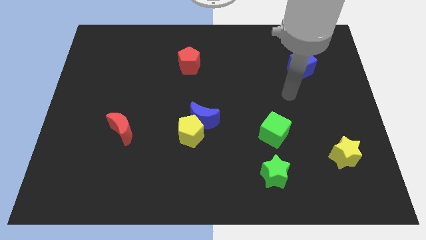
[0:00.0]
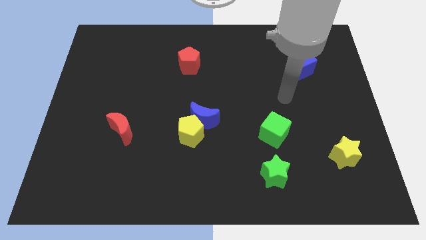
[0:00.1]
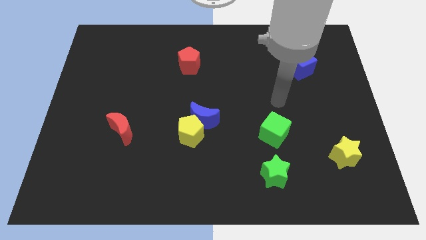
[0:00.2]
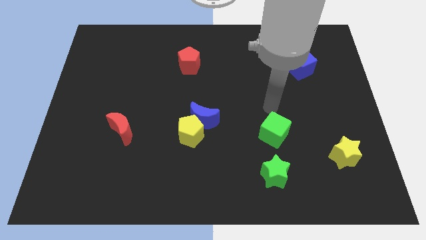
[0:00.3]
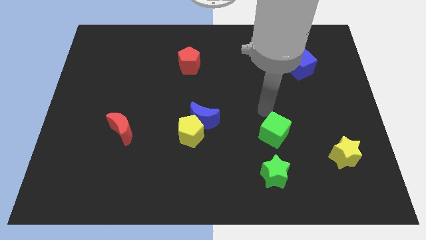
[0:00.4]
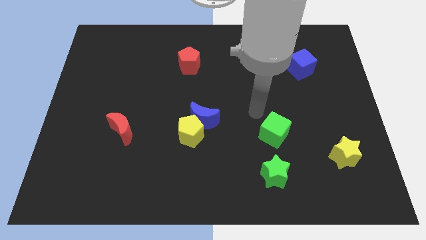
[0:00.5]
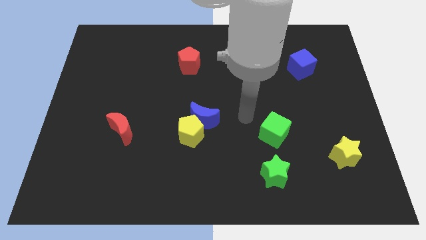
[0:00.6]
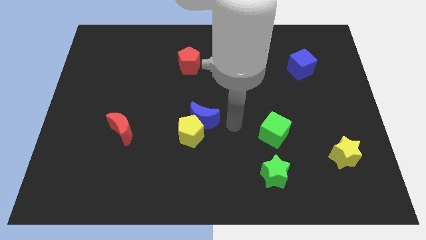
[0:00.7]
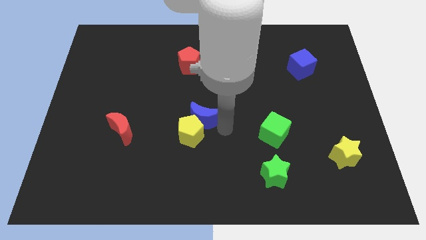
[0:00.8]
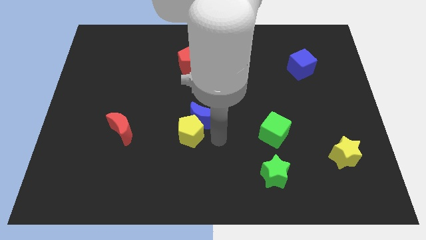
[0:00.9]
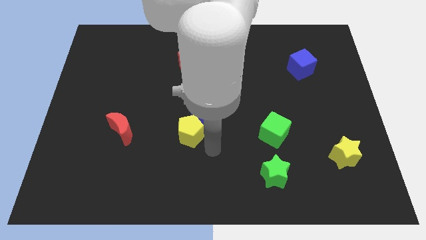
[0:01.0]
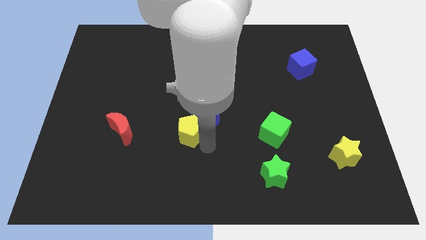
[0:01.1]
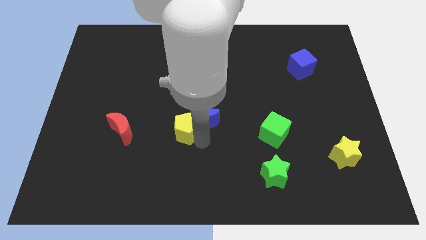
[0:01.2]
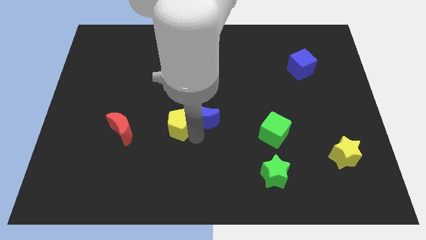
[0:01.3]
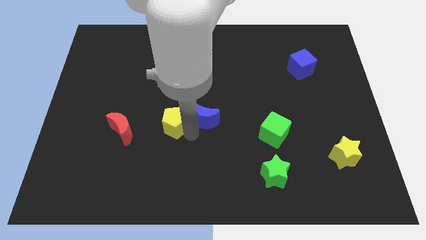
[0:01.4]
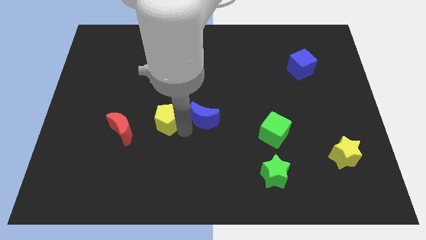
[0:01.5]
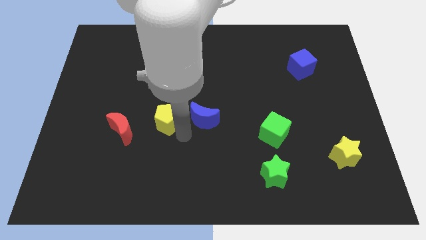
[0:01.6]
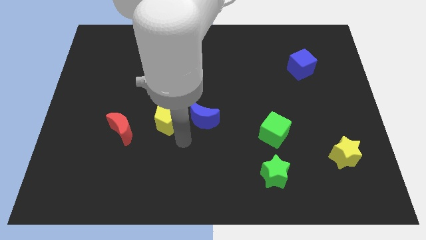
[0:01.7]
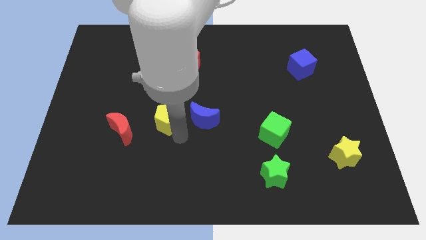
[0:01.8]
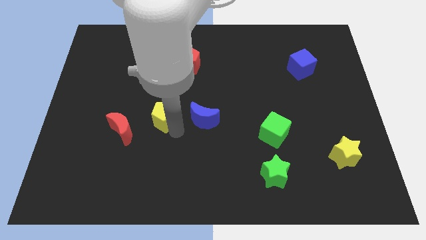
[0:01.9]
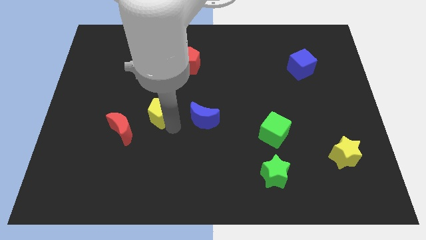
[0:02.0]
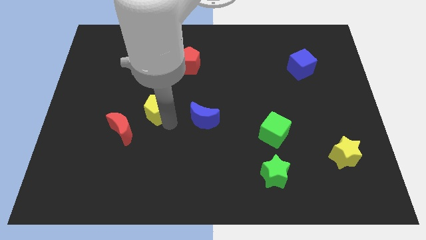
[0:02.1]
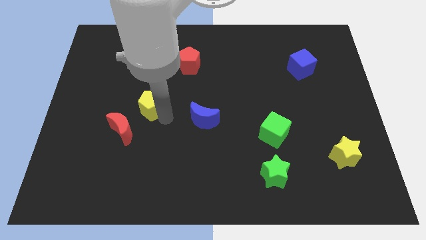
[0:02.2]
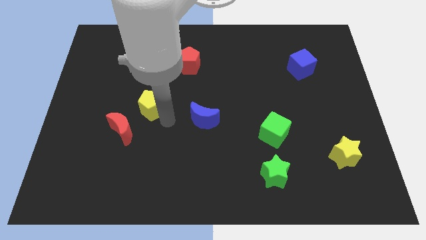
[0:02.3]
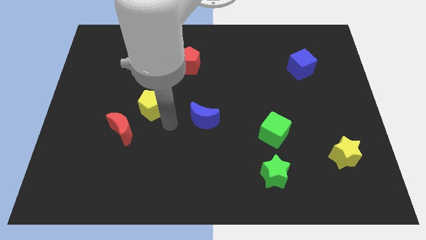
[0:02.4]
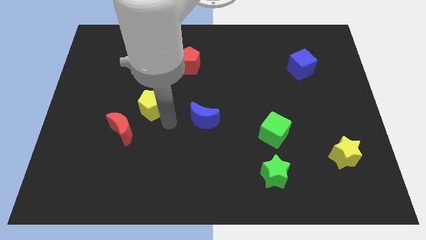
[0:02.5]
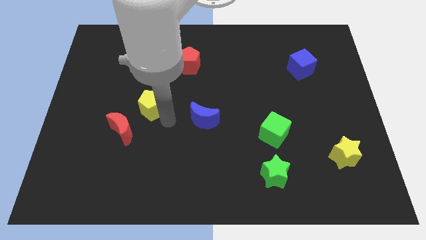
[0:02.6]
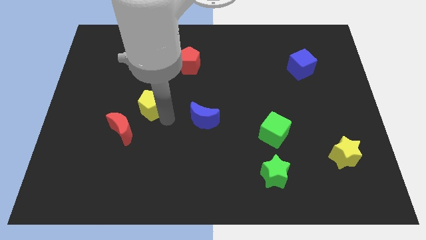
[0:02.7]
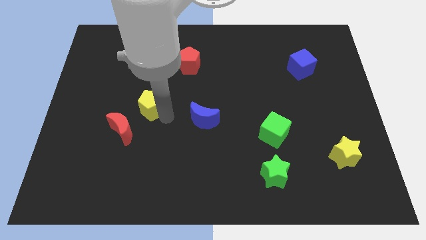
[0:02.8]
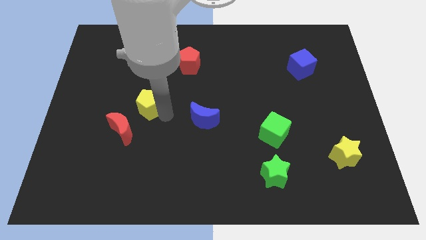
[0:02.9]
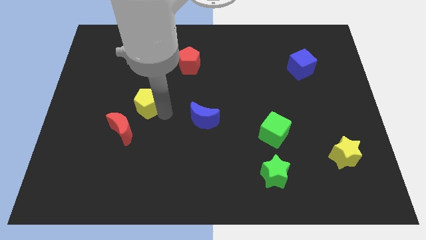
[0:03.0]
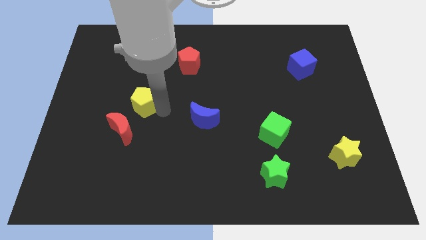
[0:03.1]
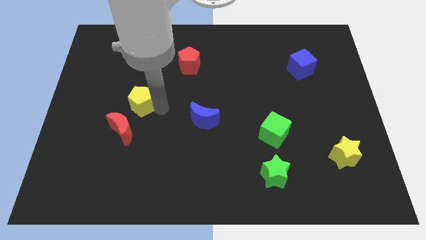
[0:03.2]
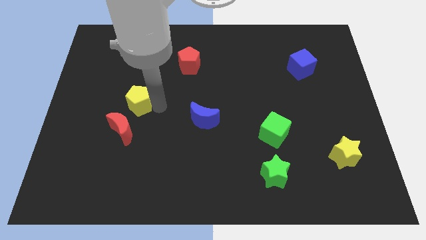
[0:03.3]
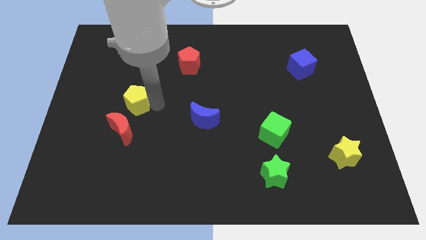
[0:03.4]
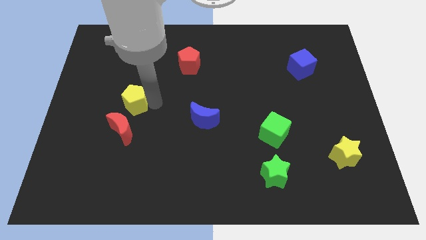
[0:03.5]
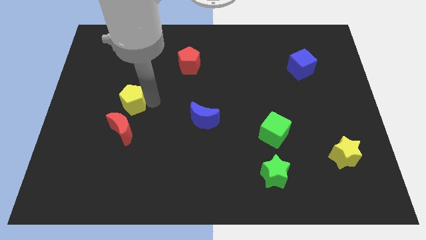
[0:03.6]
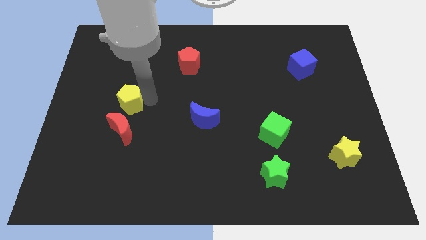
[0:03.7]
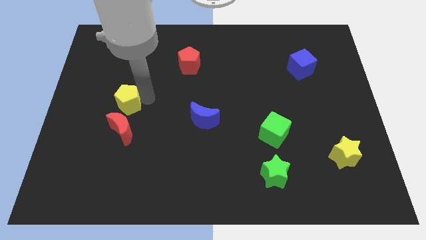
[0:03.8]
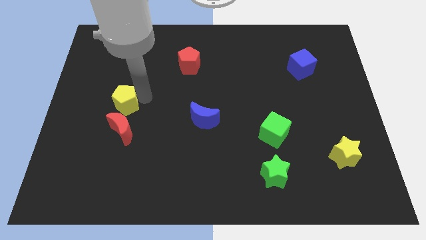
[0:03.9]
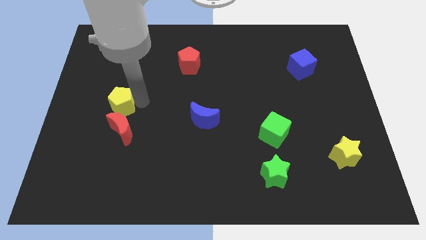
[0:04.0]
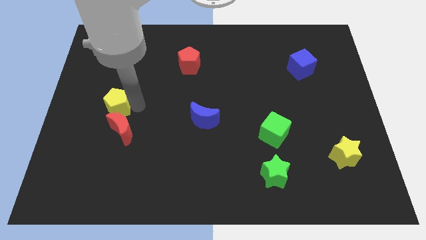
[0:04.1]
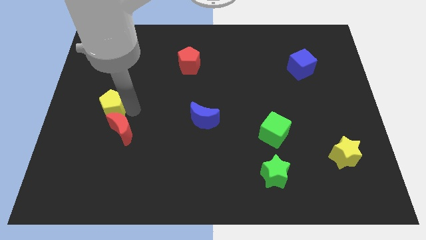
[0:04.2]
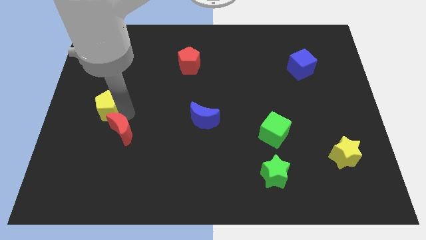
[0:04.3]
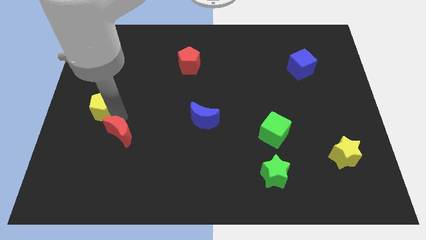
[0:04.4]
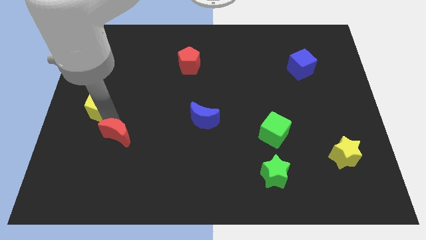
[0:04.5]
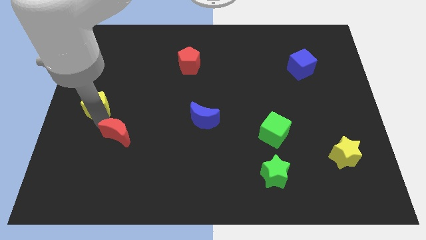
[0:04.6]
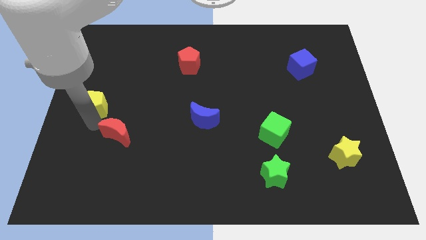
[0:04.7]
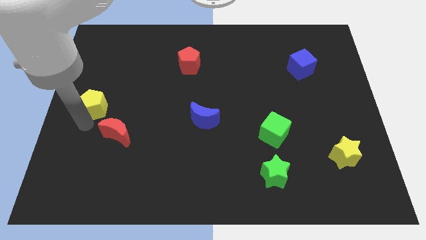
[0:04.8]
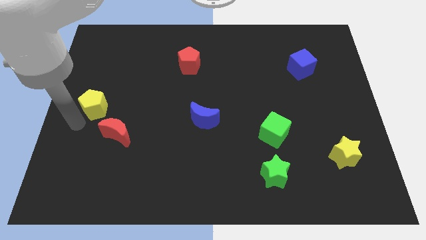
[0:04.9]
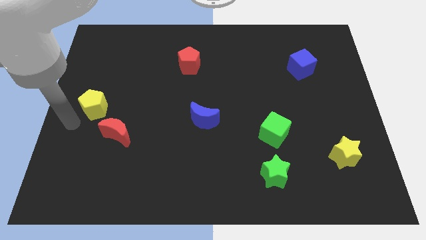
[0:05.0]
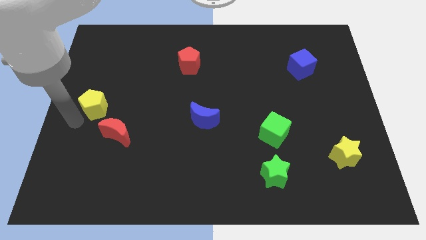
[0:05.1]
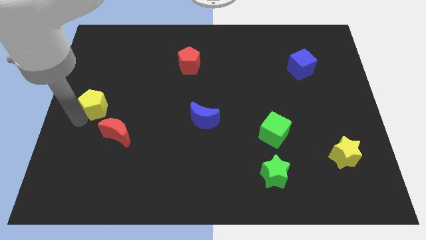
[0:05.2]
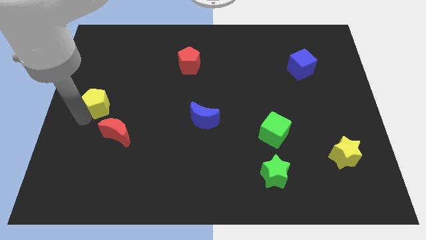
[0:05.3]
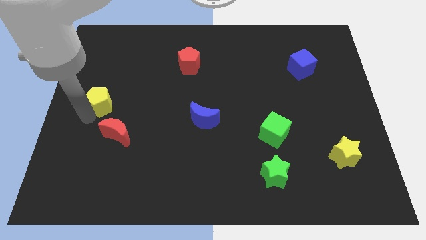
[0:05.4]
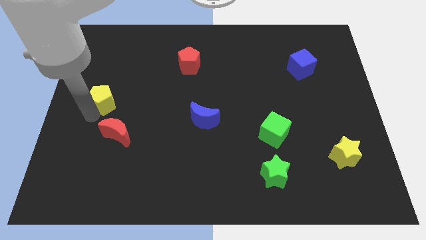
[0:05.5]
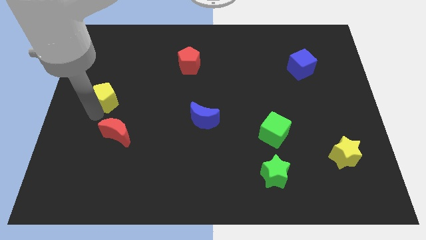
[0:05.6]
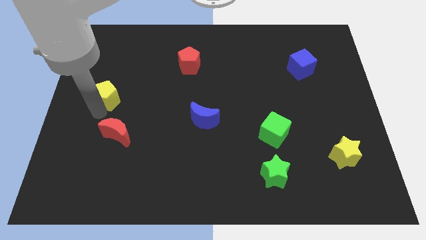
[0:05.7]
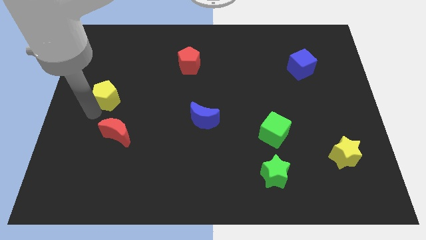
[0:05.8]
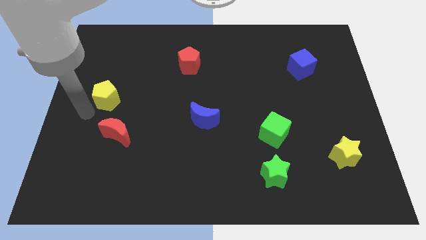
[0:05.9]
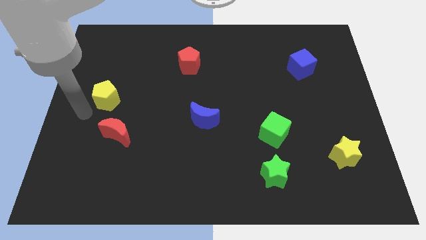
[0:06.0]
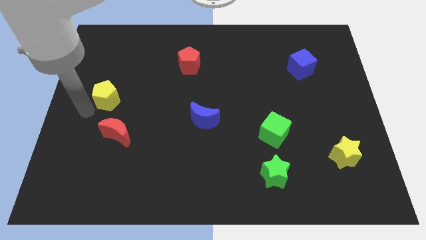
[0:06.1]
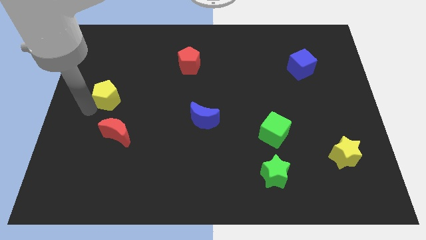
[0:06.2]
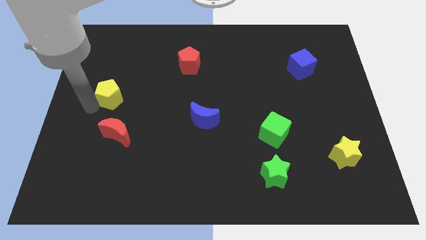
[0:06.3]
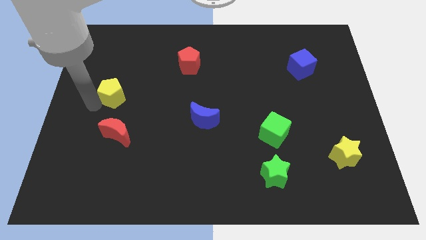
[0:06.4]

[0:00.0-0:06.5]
move the yellow pentagon upwards and then to the left

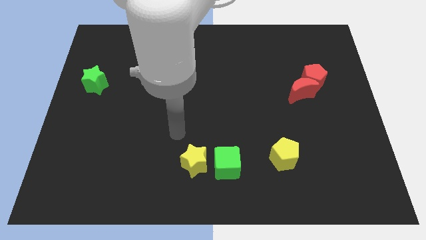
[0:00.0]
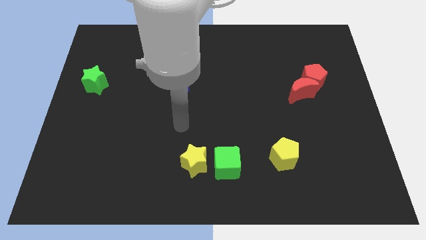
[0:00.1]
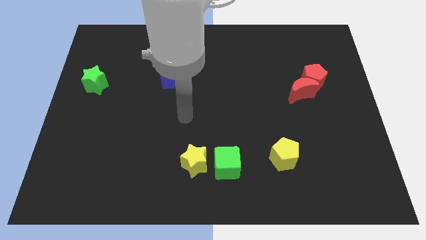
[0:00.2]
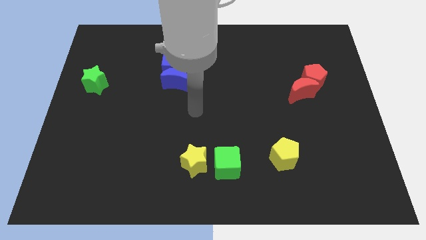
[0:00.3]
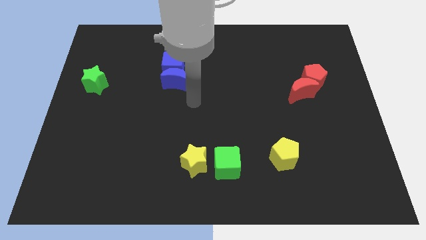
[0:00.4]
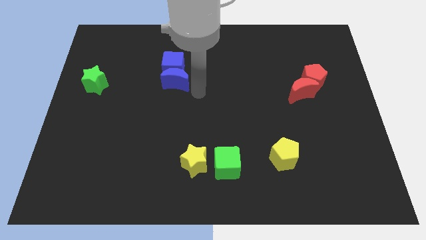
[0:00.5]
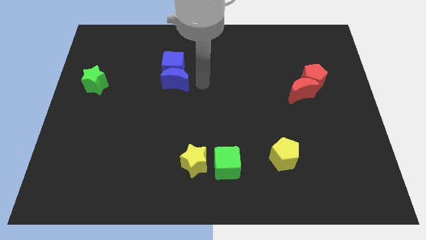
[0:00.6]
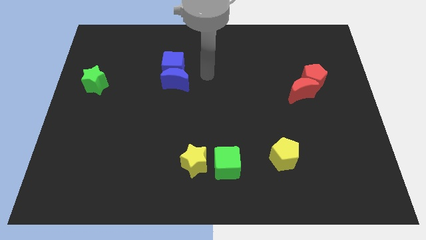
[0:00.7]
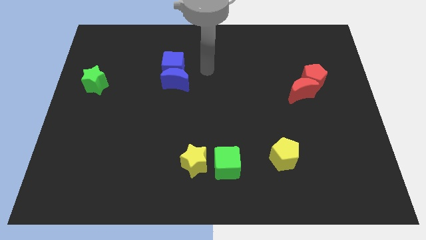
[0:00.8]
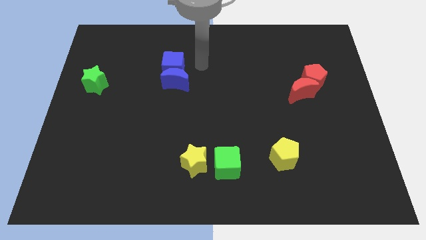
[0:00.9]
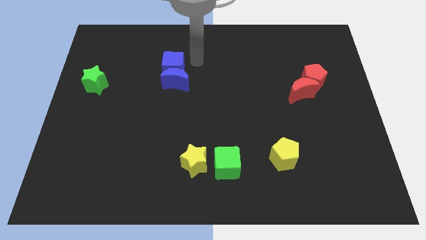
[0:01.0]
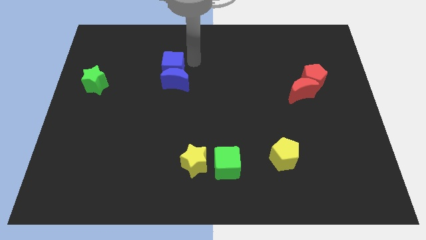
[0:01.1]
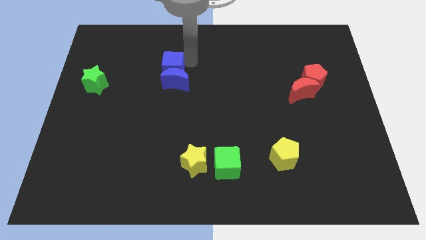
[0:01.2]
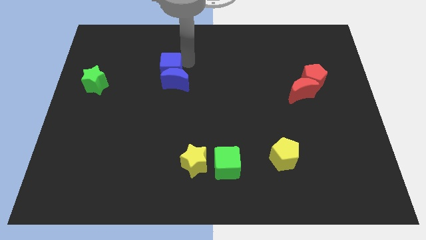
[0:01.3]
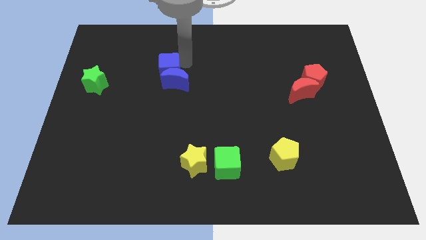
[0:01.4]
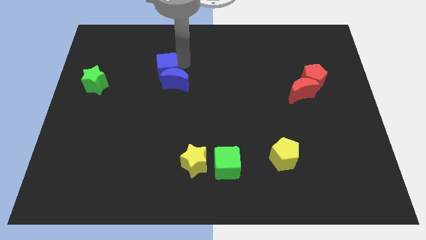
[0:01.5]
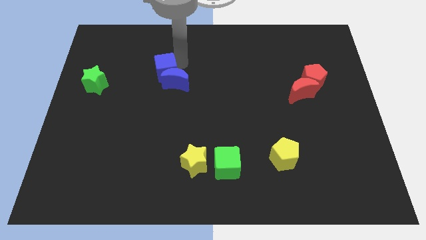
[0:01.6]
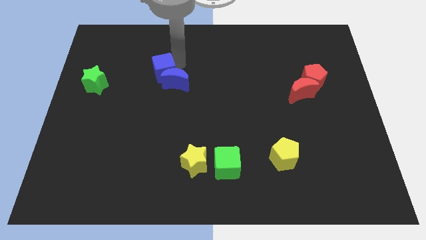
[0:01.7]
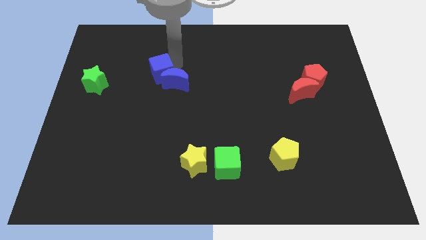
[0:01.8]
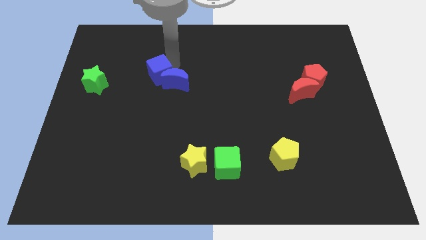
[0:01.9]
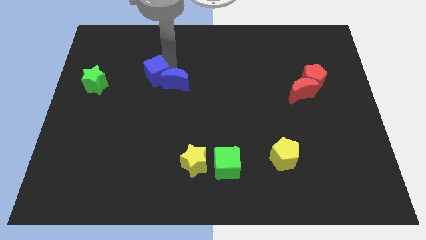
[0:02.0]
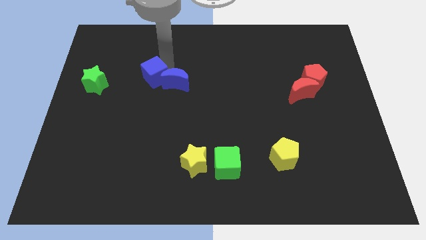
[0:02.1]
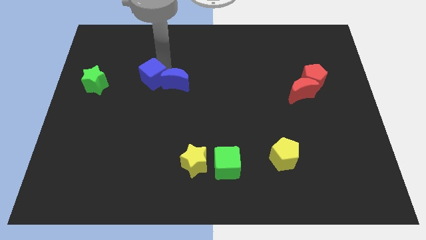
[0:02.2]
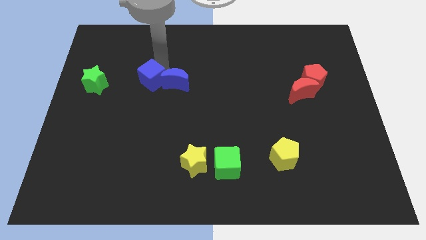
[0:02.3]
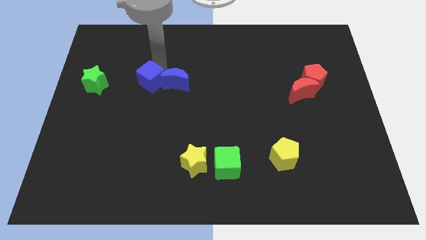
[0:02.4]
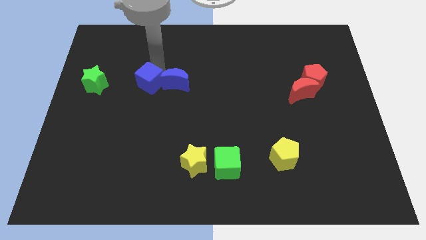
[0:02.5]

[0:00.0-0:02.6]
push the blue cube downwards and to the left somewhat
